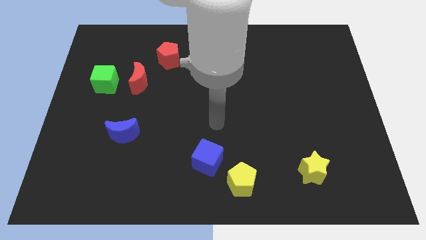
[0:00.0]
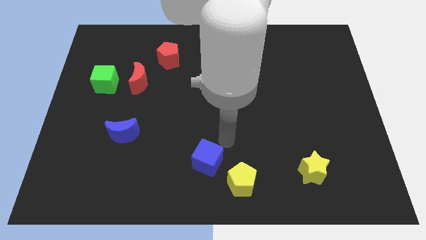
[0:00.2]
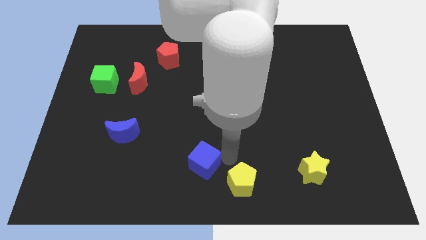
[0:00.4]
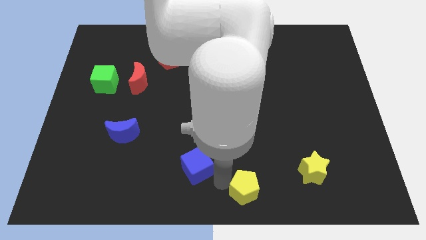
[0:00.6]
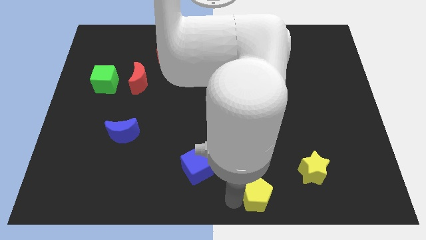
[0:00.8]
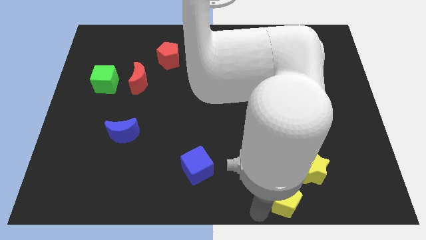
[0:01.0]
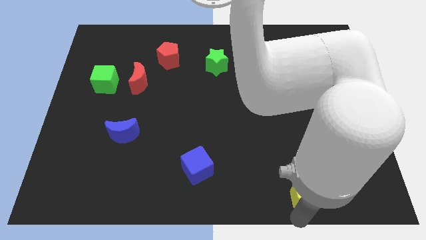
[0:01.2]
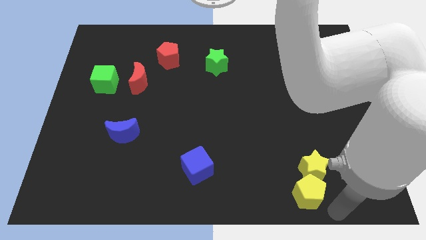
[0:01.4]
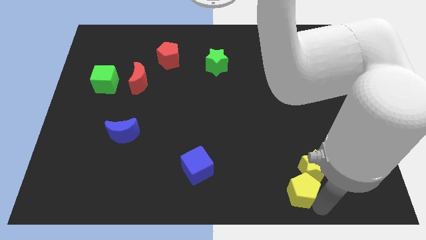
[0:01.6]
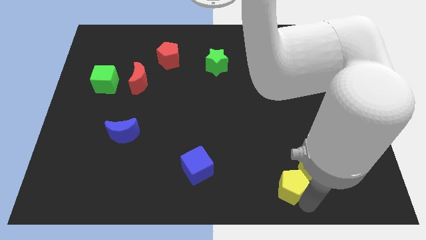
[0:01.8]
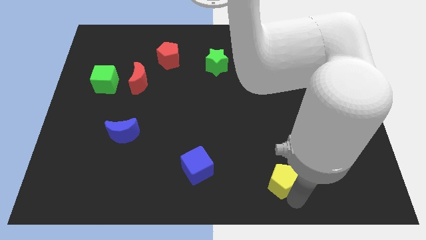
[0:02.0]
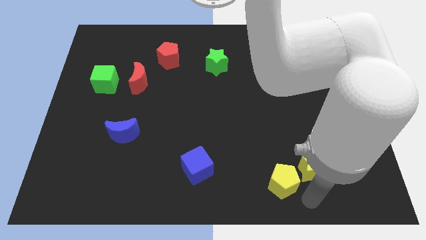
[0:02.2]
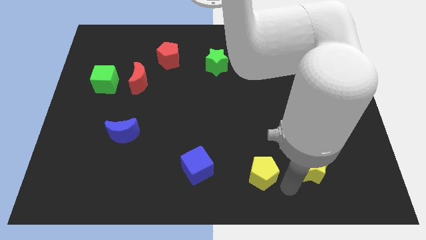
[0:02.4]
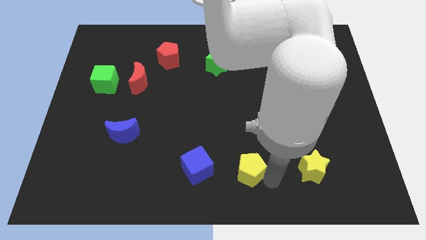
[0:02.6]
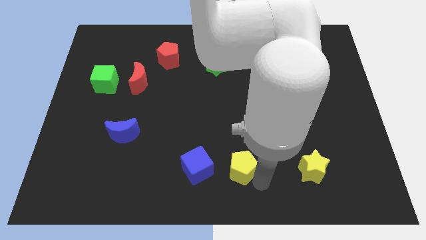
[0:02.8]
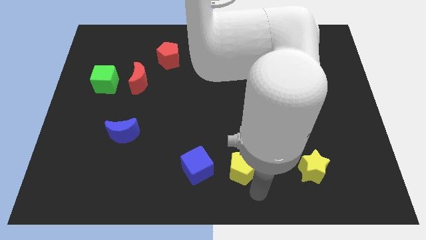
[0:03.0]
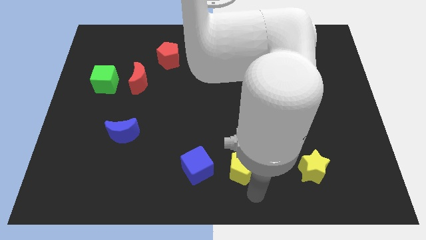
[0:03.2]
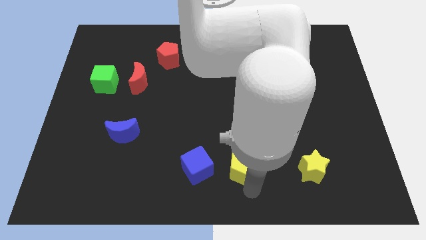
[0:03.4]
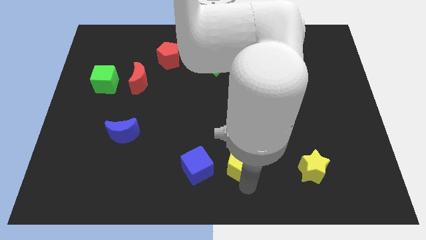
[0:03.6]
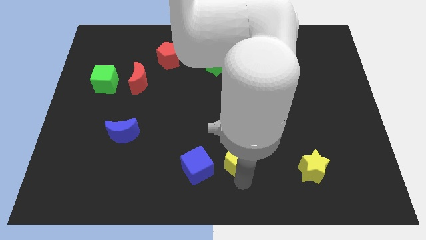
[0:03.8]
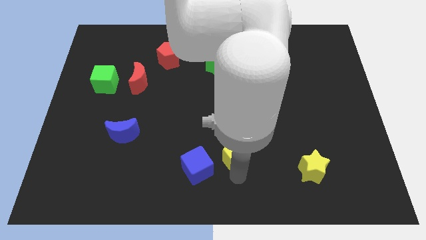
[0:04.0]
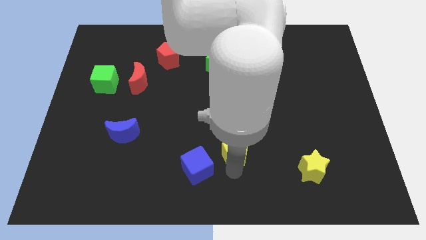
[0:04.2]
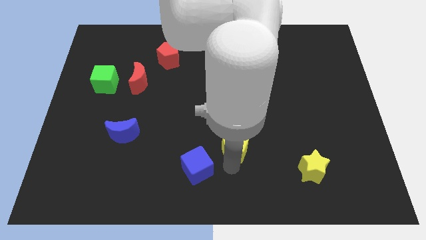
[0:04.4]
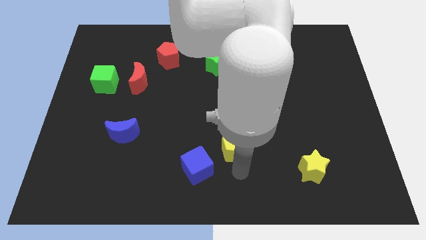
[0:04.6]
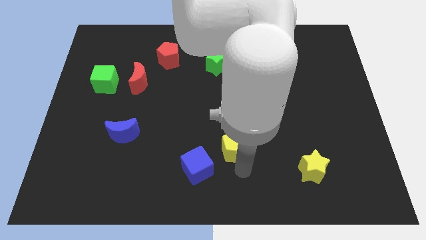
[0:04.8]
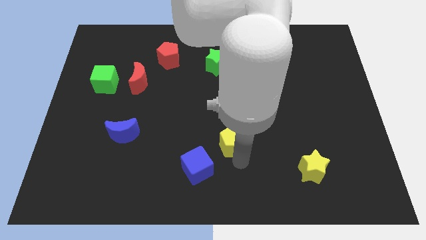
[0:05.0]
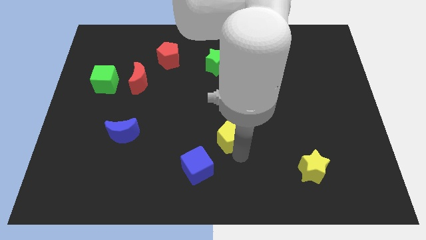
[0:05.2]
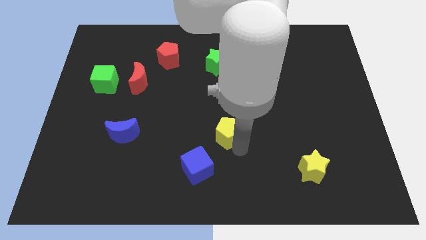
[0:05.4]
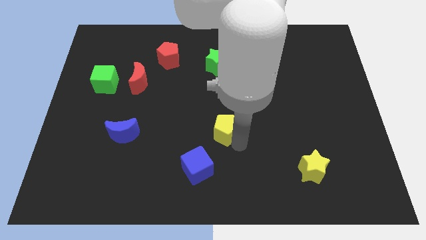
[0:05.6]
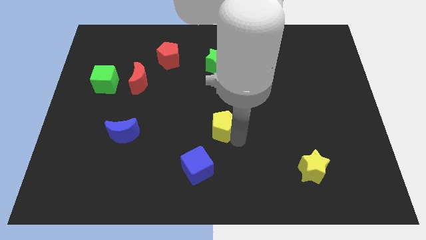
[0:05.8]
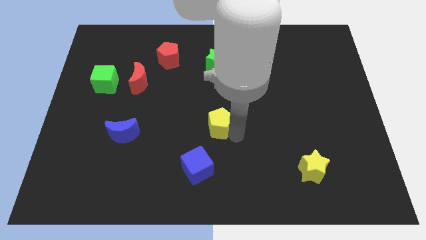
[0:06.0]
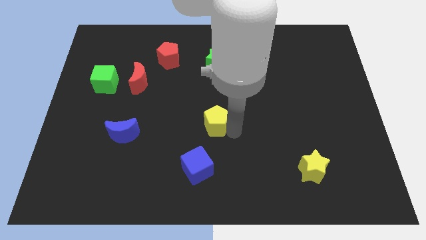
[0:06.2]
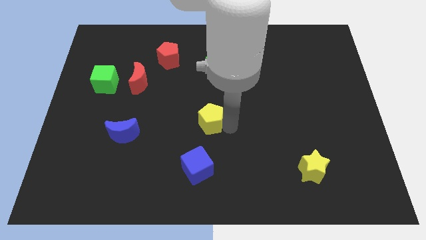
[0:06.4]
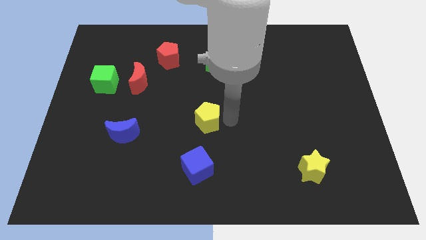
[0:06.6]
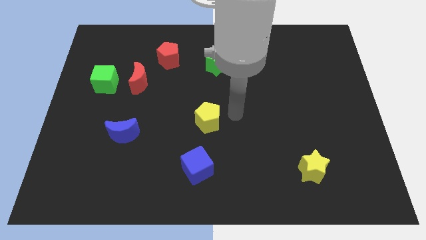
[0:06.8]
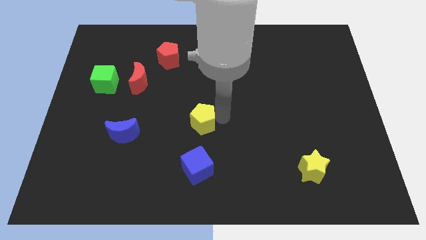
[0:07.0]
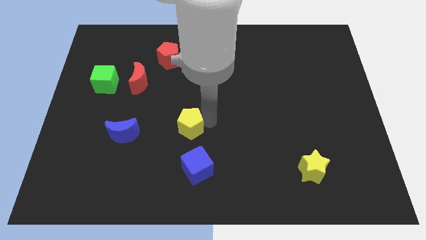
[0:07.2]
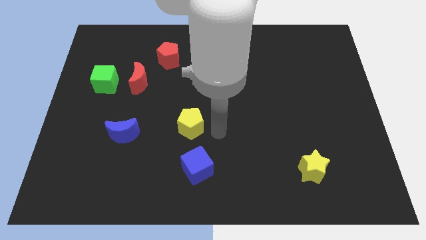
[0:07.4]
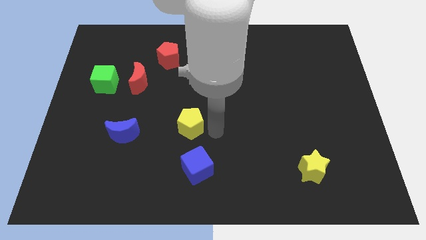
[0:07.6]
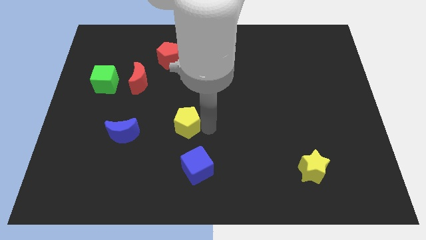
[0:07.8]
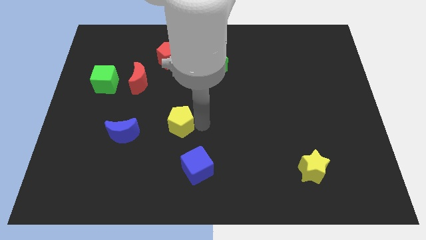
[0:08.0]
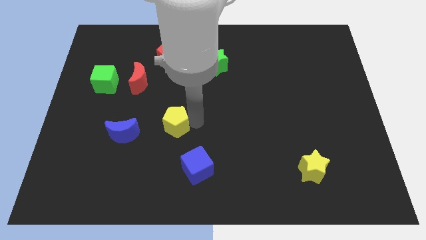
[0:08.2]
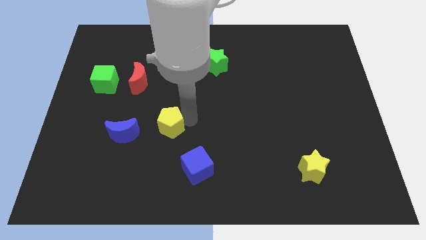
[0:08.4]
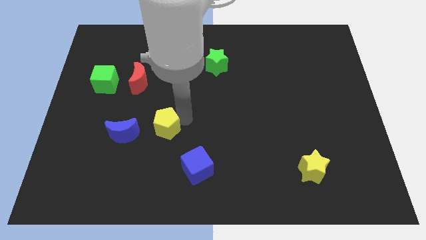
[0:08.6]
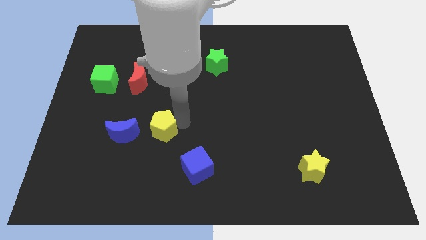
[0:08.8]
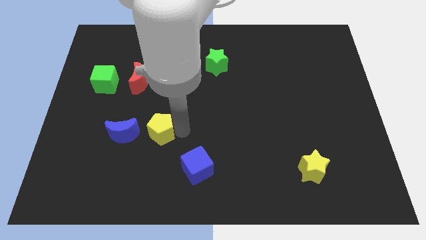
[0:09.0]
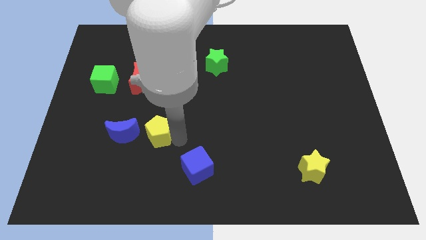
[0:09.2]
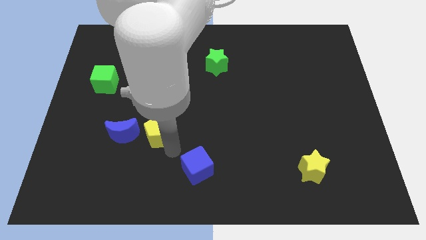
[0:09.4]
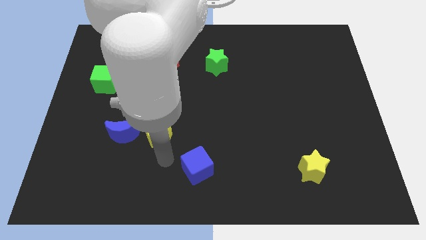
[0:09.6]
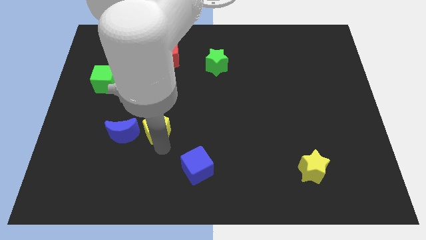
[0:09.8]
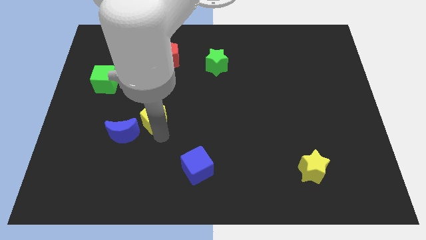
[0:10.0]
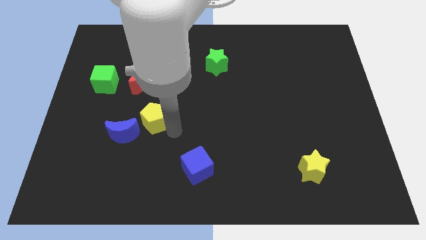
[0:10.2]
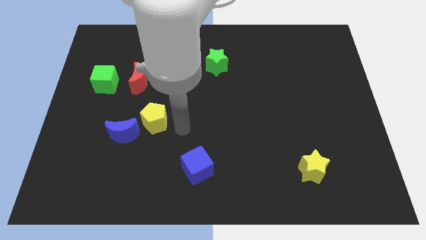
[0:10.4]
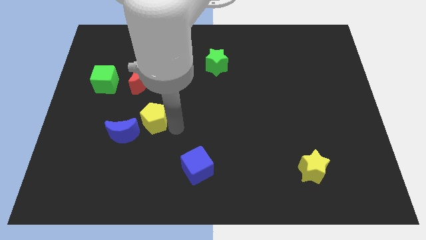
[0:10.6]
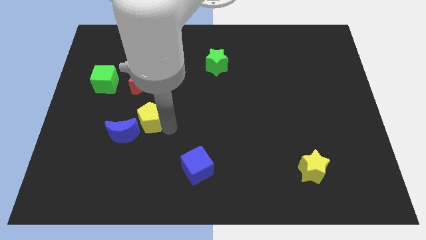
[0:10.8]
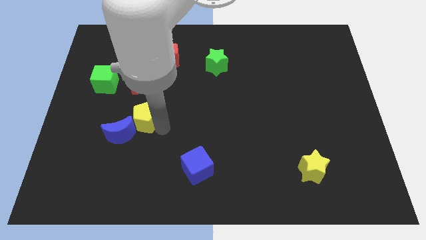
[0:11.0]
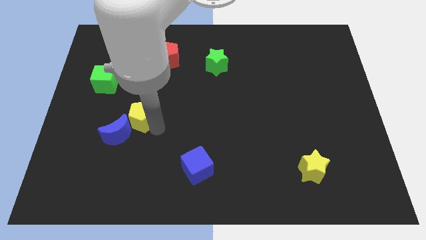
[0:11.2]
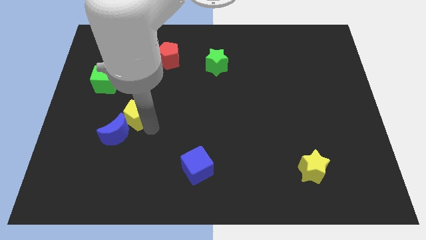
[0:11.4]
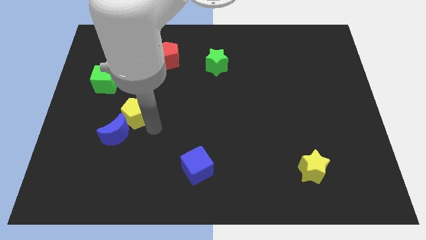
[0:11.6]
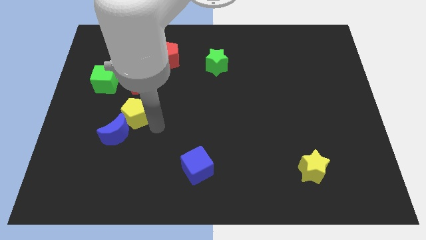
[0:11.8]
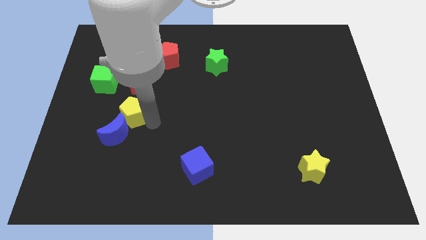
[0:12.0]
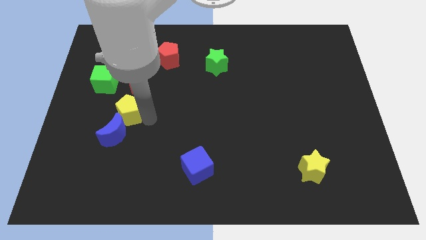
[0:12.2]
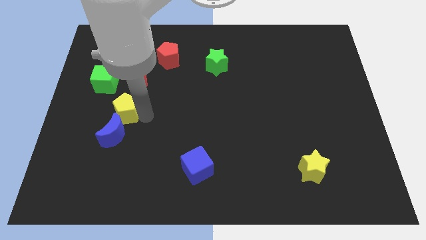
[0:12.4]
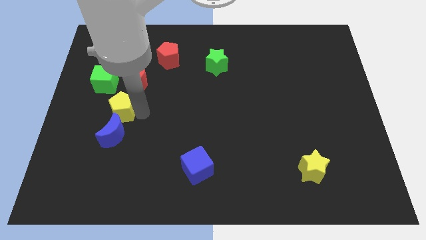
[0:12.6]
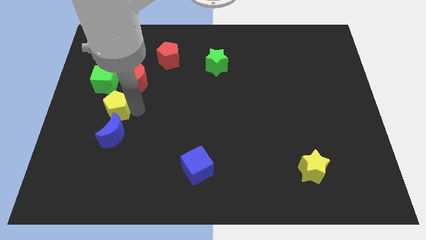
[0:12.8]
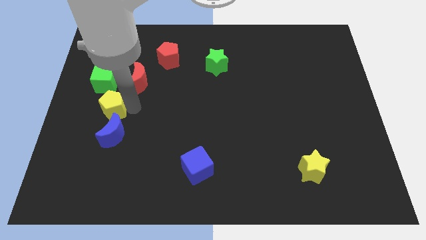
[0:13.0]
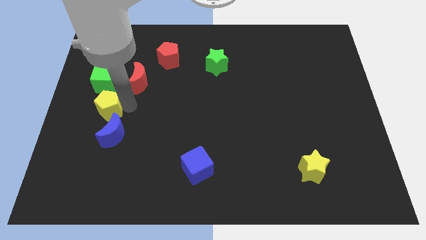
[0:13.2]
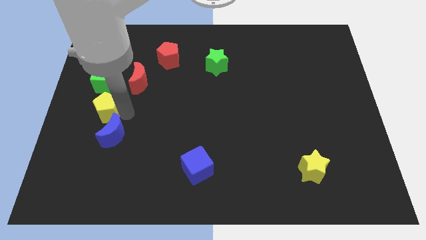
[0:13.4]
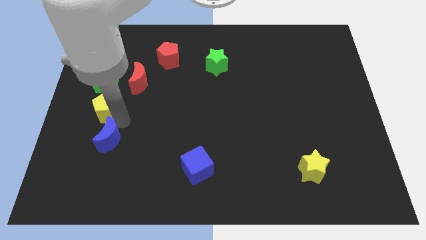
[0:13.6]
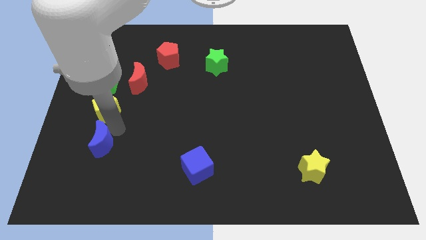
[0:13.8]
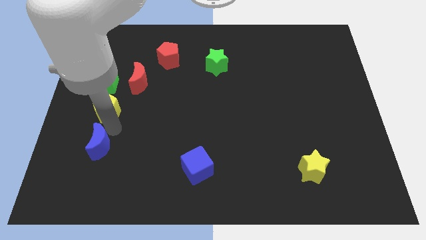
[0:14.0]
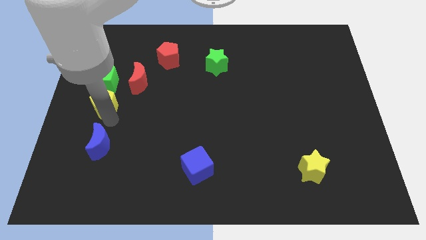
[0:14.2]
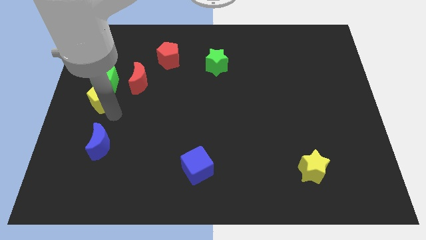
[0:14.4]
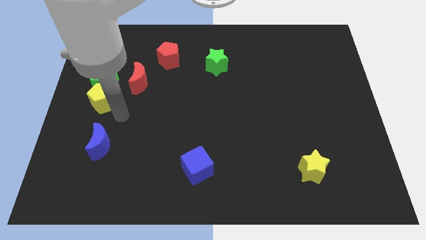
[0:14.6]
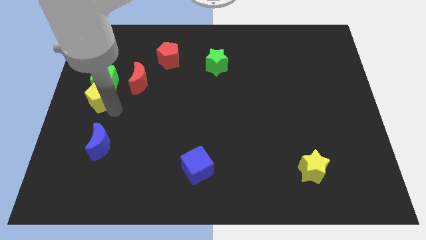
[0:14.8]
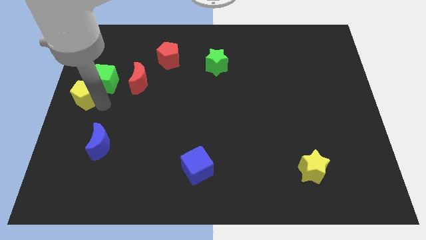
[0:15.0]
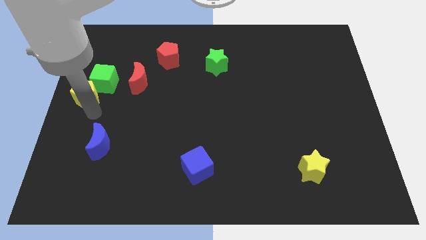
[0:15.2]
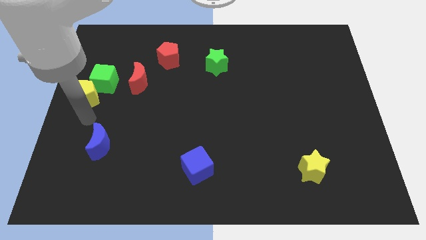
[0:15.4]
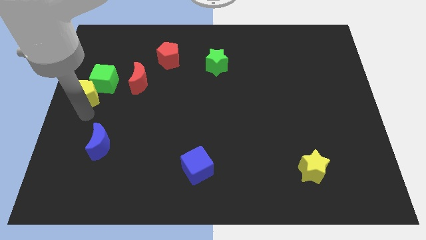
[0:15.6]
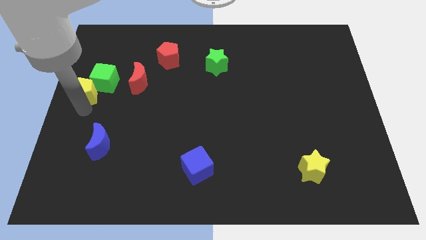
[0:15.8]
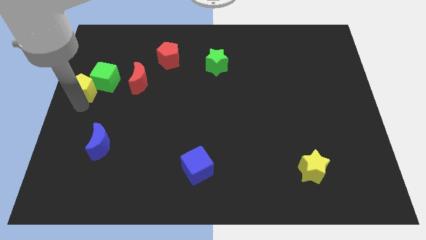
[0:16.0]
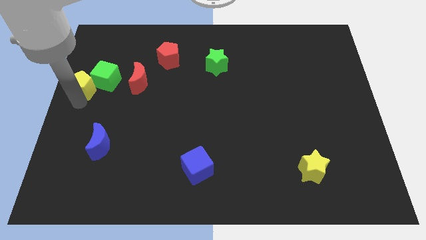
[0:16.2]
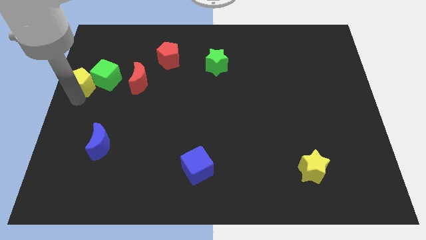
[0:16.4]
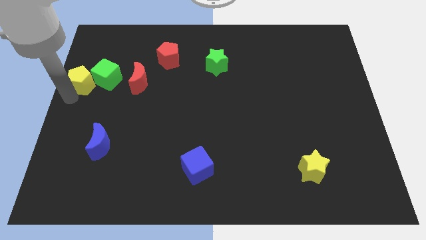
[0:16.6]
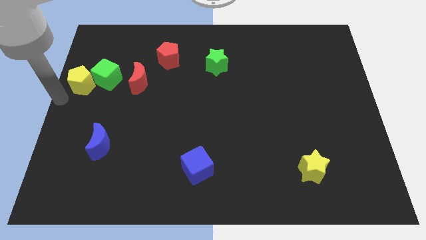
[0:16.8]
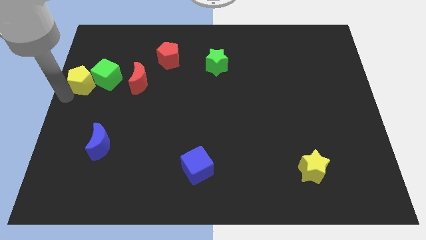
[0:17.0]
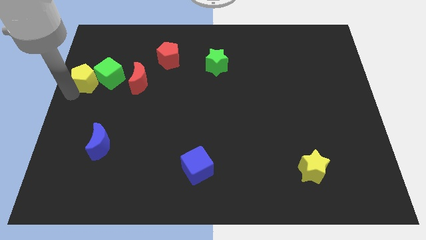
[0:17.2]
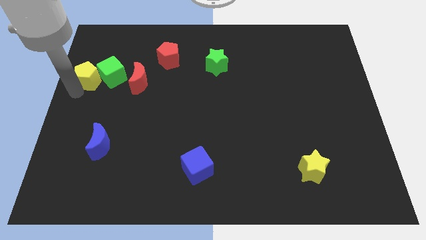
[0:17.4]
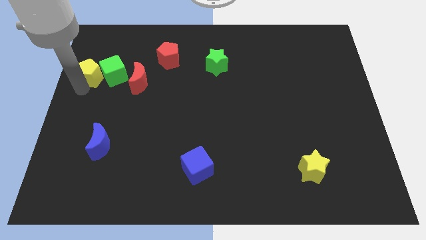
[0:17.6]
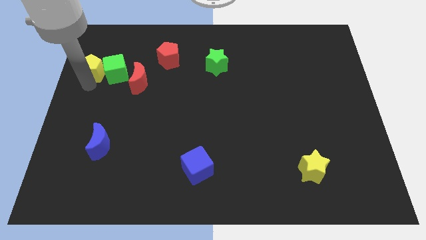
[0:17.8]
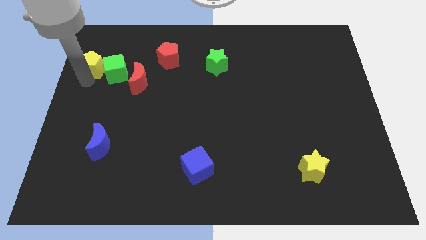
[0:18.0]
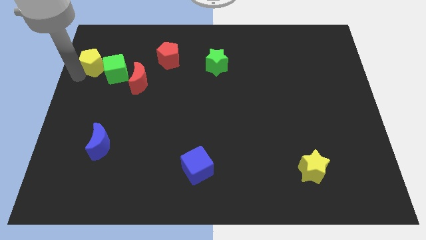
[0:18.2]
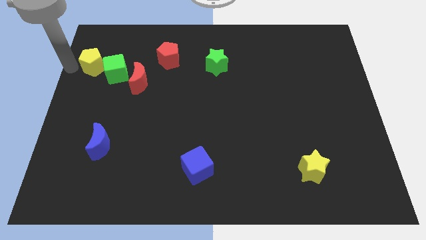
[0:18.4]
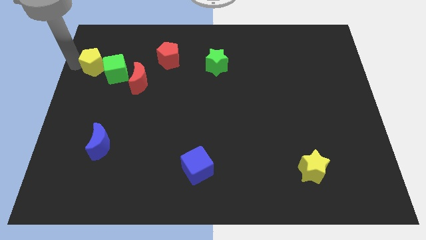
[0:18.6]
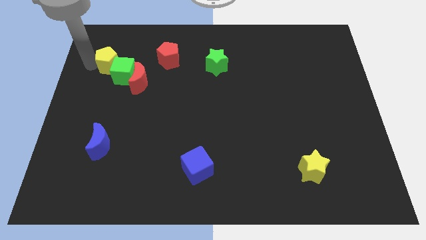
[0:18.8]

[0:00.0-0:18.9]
move the yellow pentagon diagonally up and to the left of the red moon
